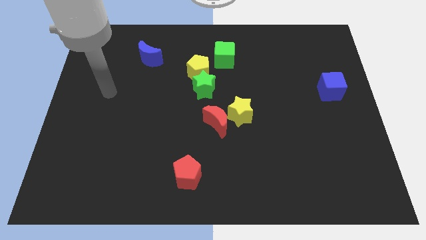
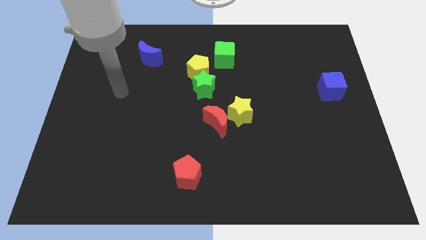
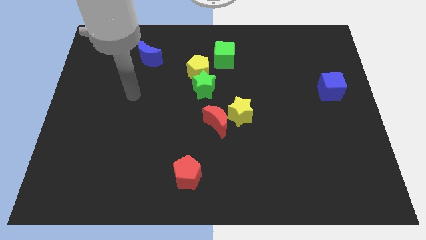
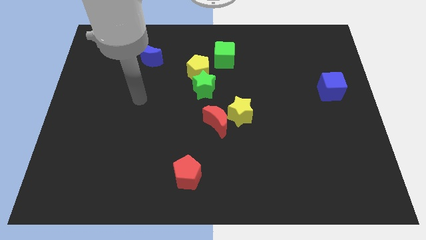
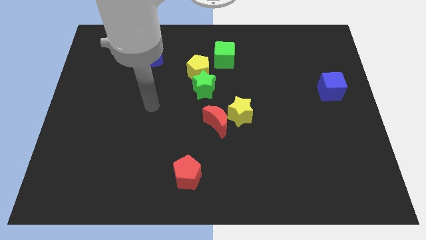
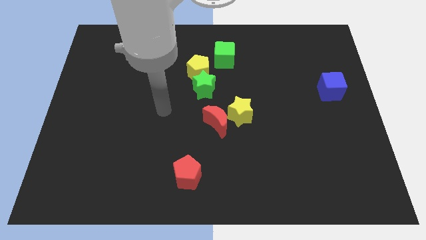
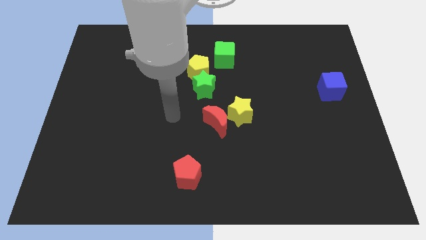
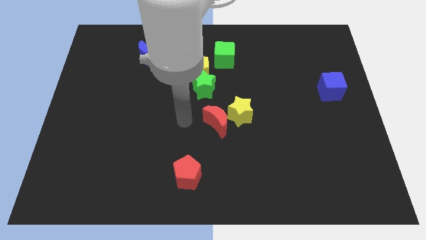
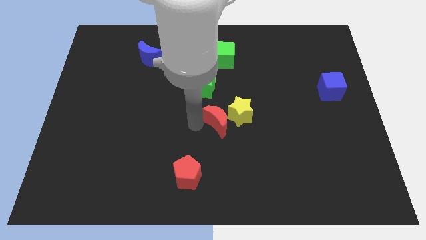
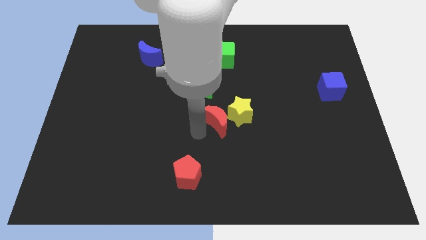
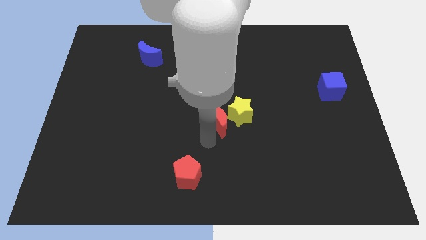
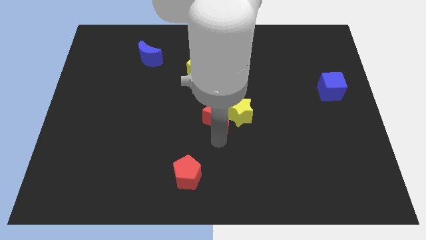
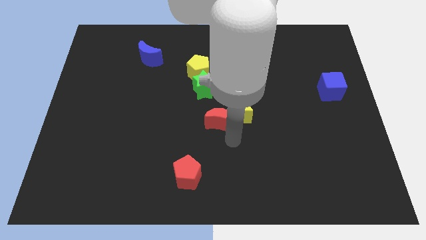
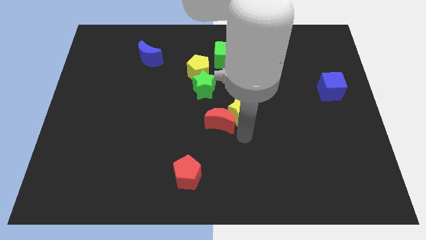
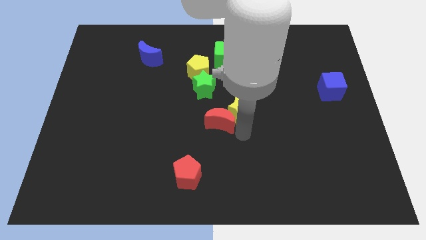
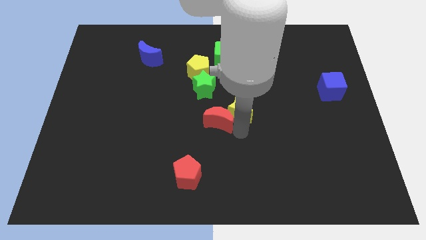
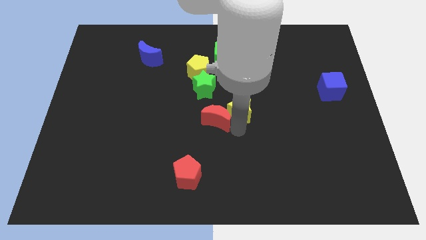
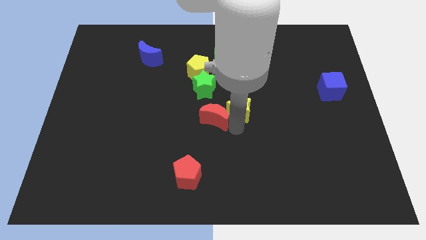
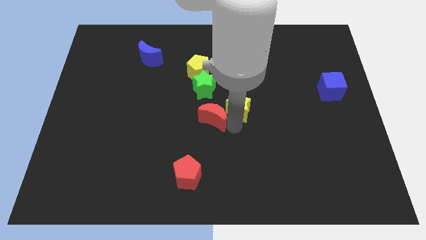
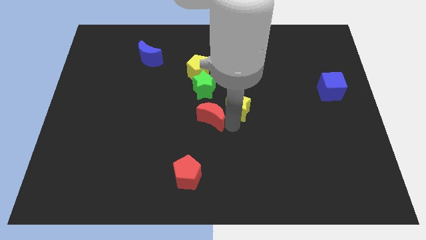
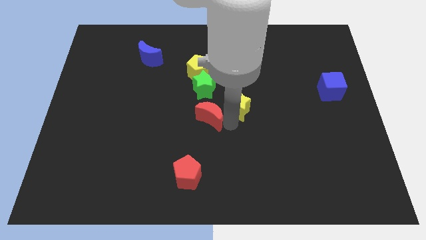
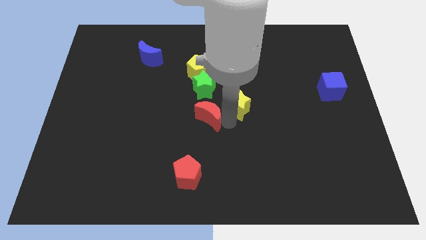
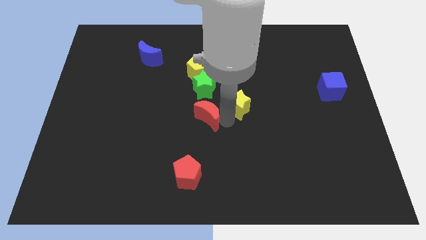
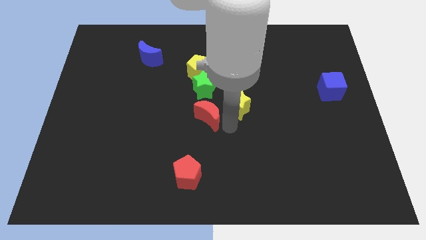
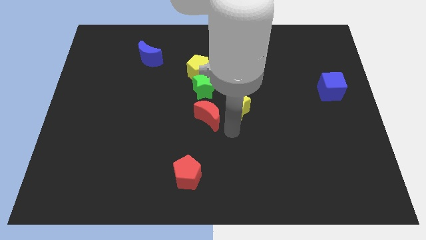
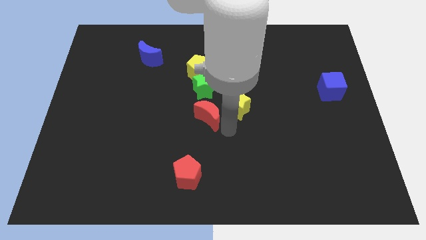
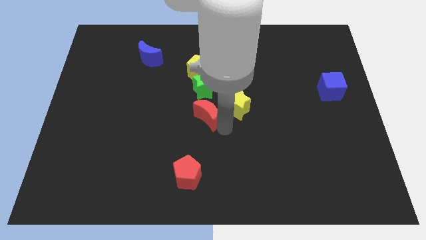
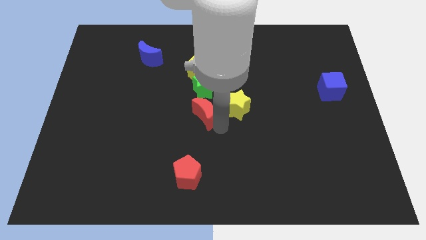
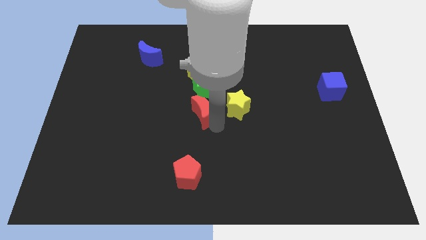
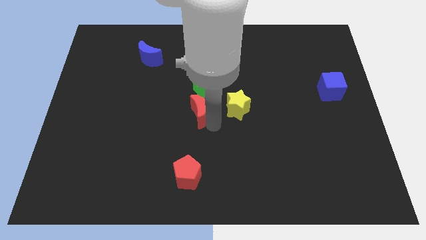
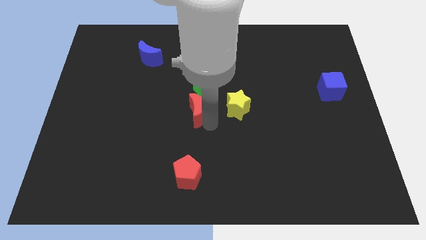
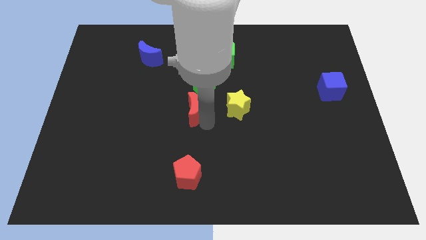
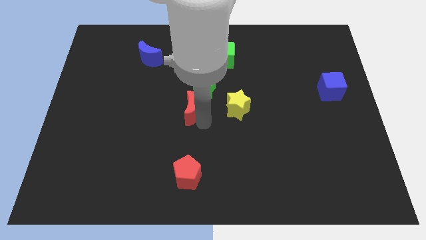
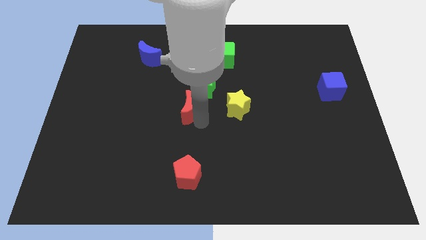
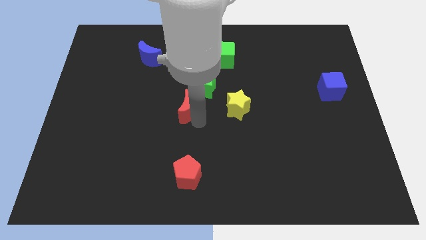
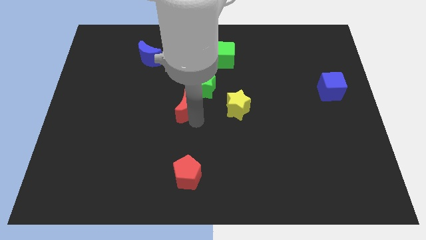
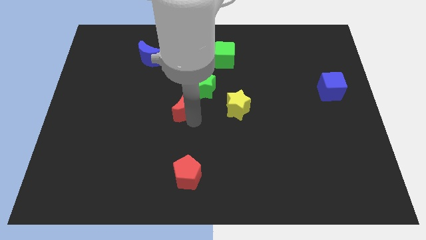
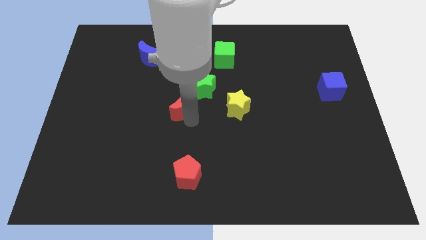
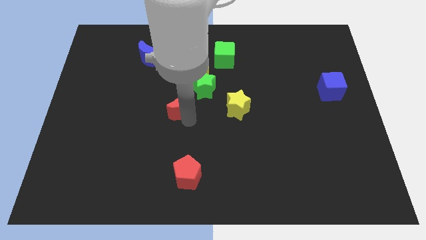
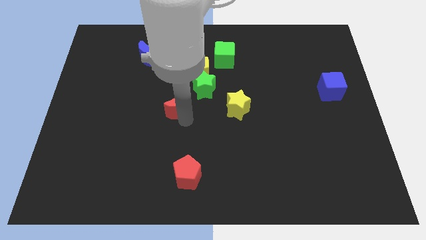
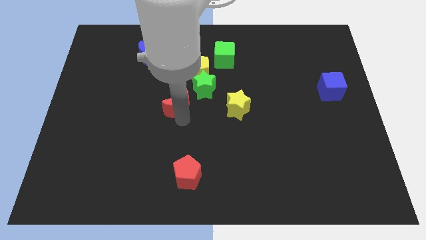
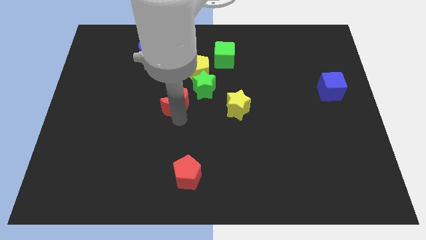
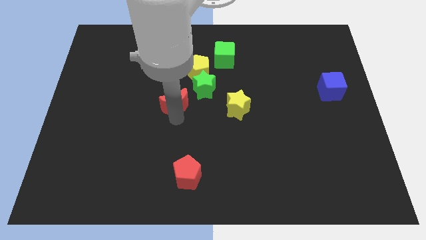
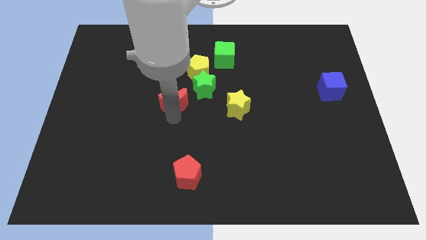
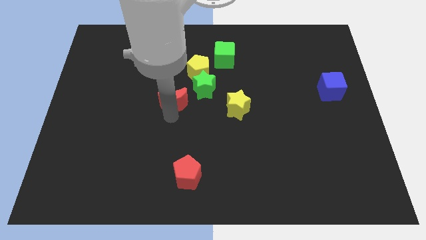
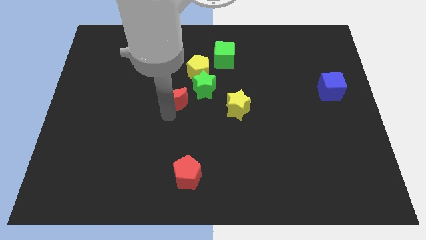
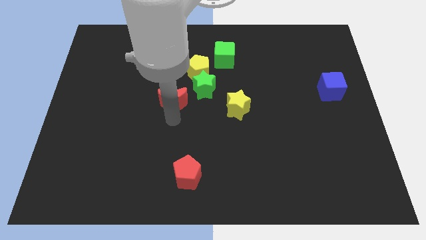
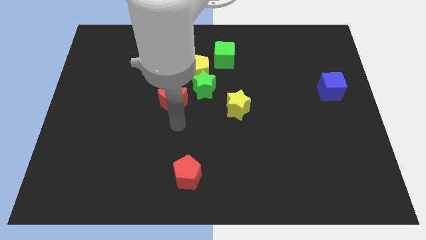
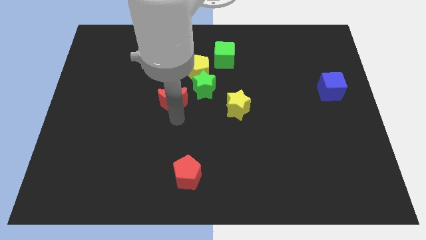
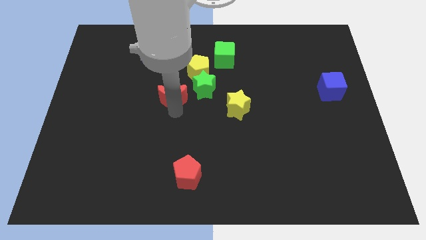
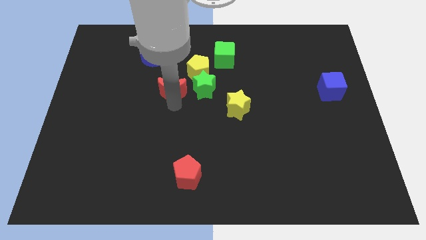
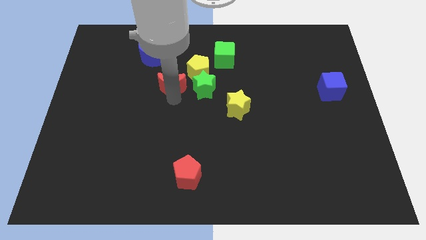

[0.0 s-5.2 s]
move the red moon to the bottom right side of the blue moon

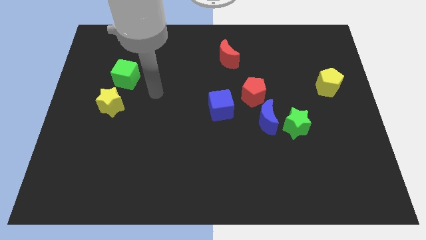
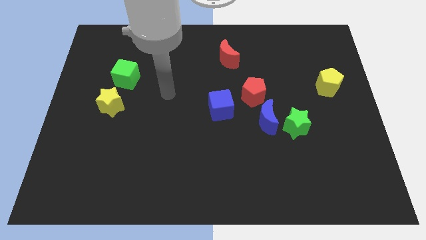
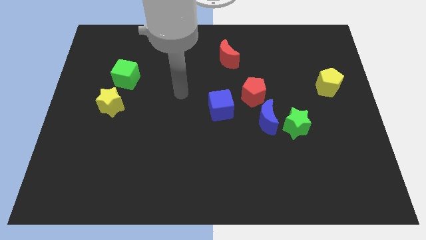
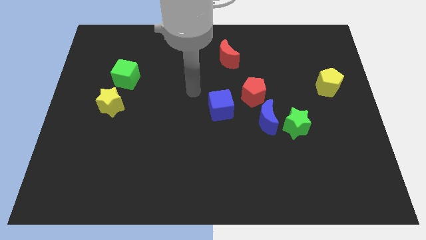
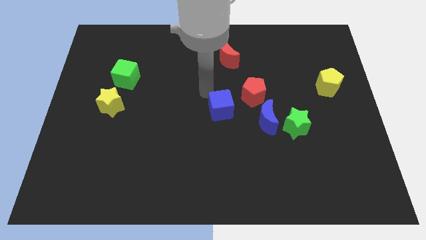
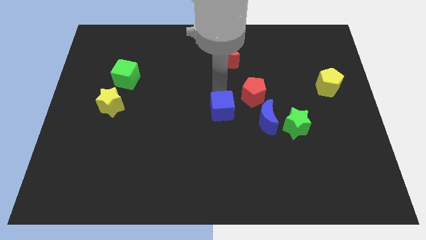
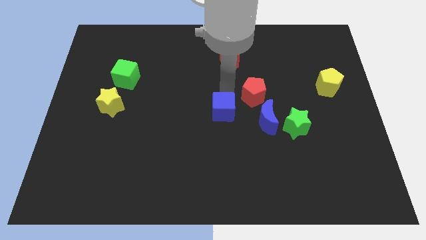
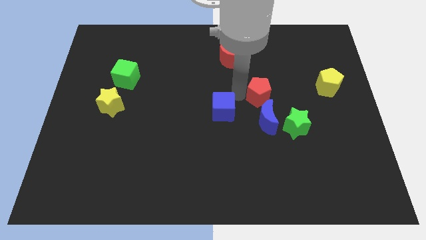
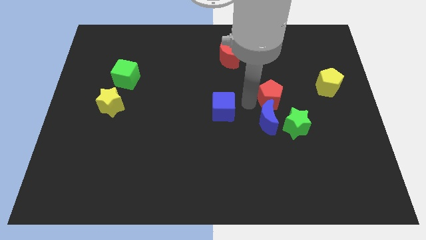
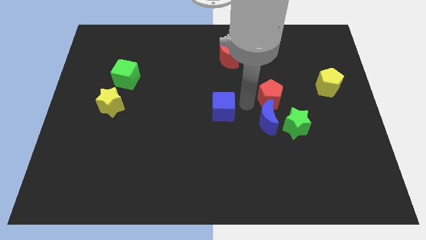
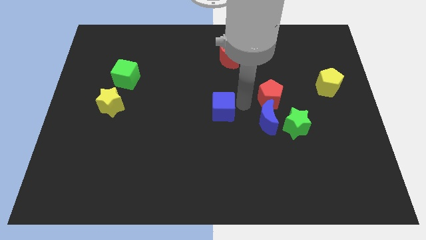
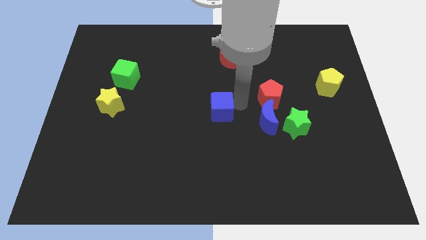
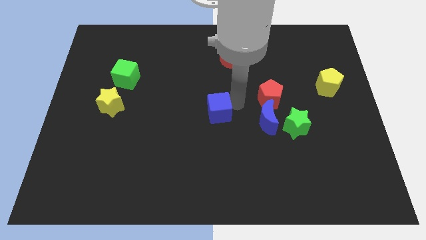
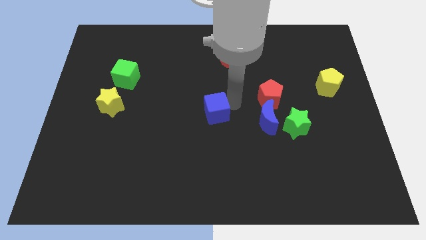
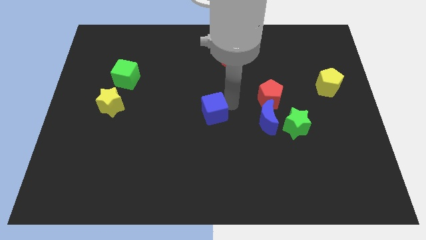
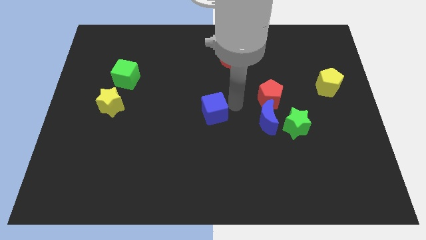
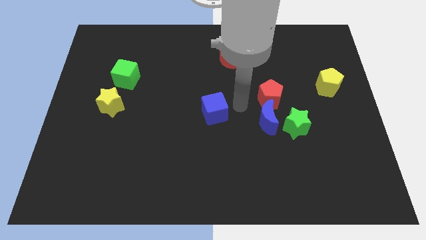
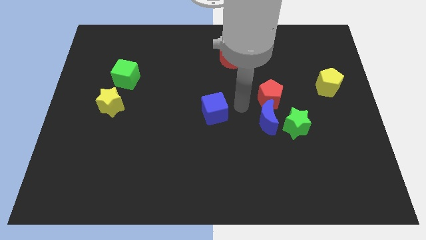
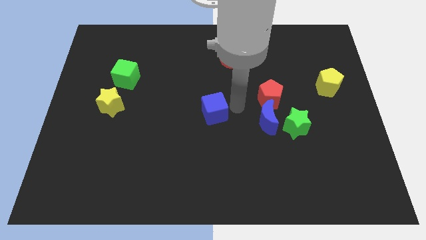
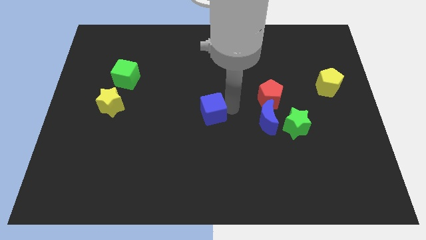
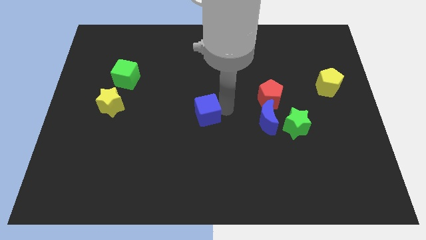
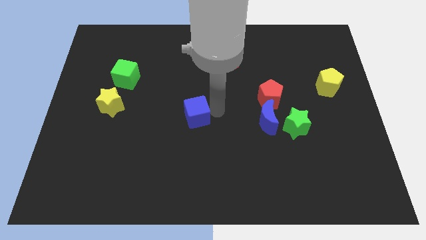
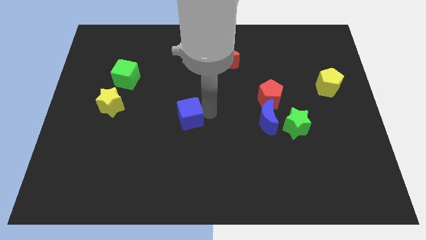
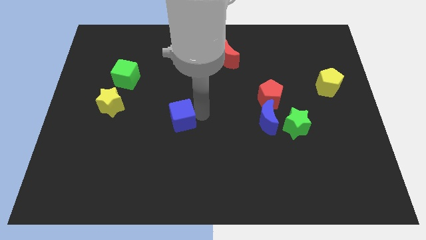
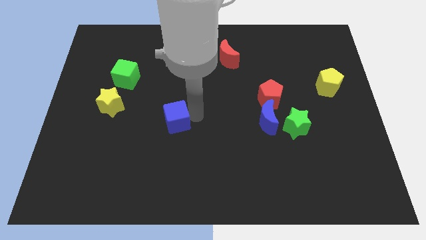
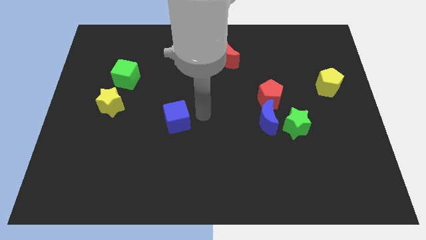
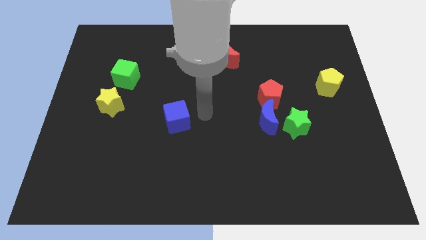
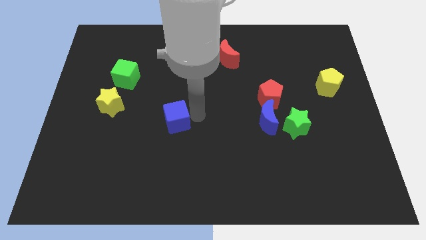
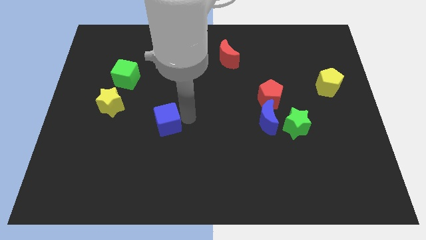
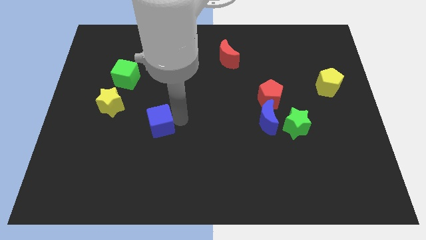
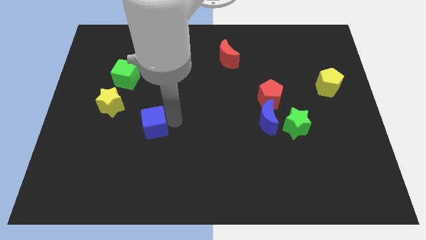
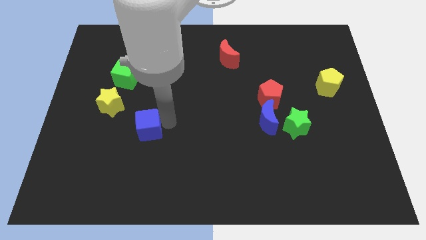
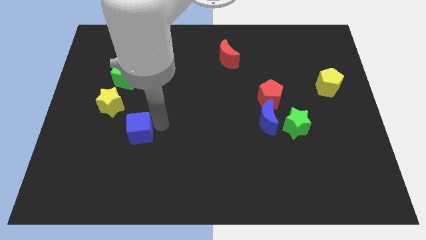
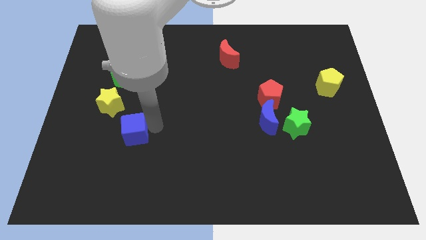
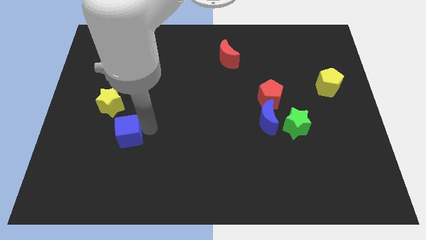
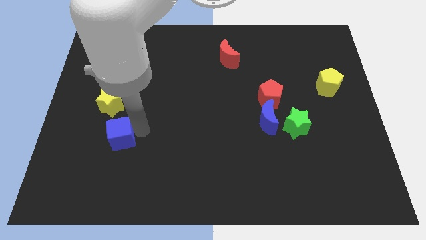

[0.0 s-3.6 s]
push the blue cube to the bottom of the yellow star
